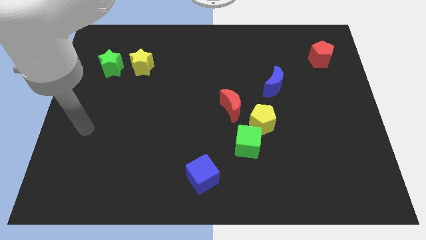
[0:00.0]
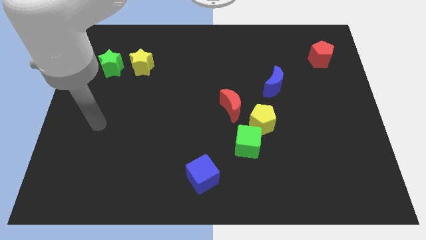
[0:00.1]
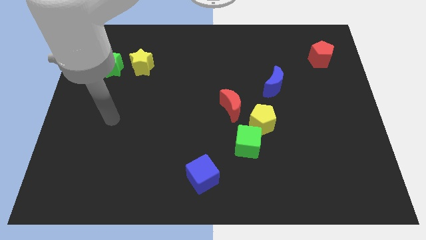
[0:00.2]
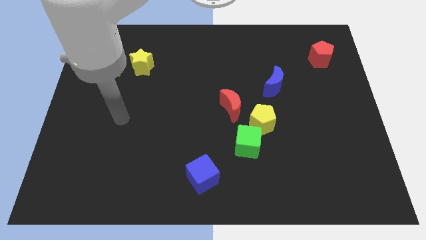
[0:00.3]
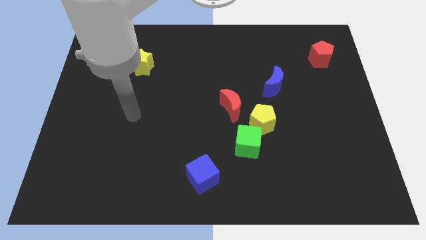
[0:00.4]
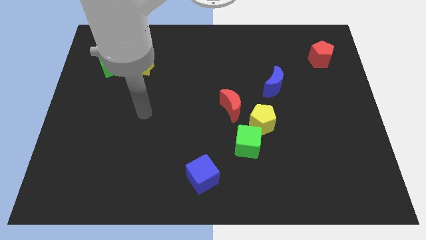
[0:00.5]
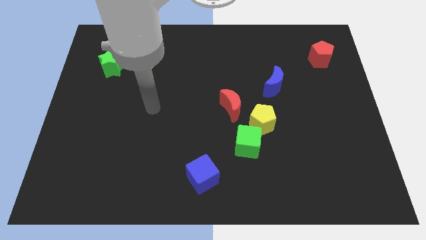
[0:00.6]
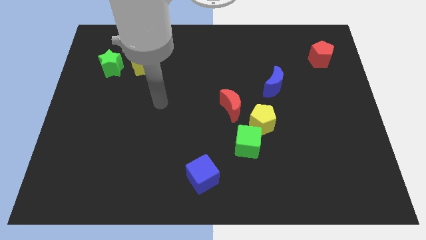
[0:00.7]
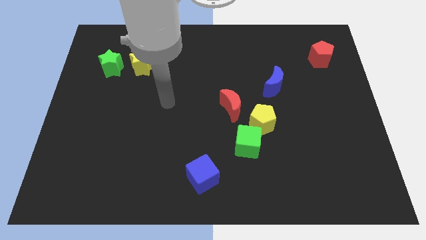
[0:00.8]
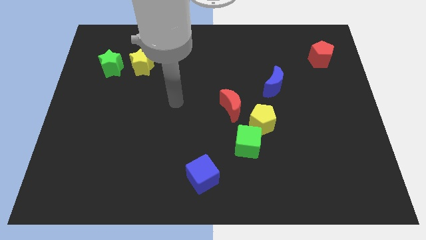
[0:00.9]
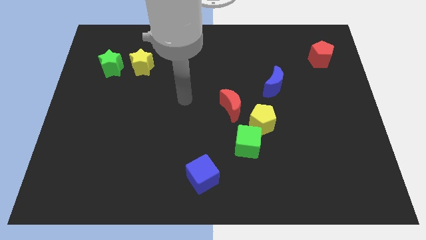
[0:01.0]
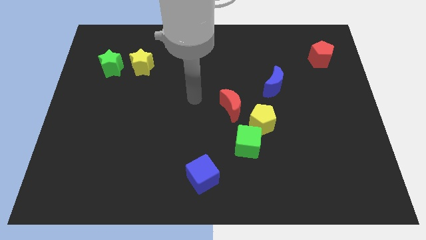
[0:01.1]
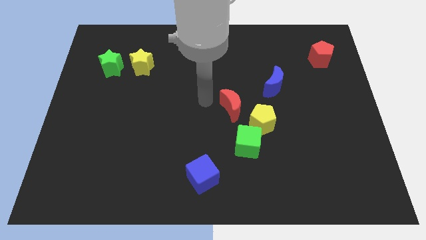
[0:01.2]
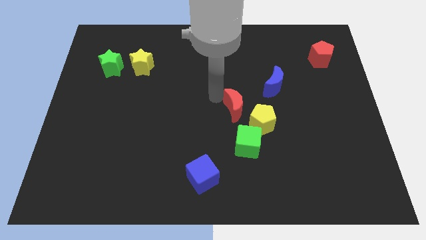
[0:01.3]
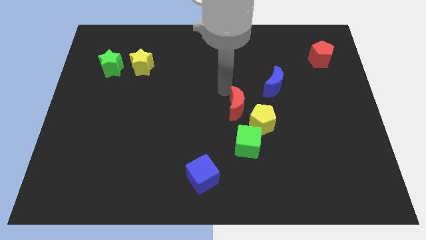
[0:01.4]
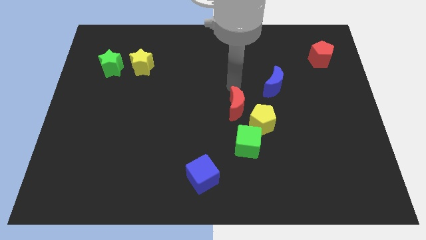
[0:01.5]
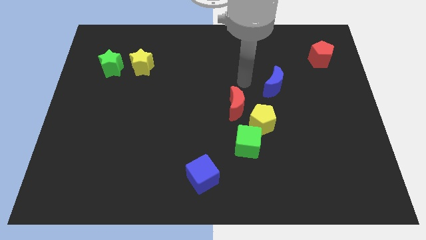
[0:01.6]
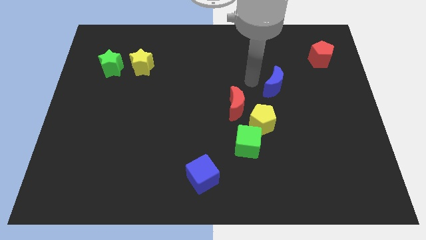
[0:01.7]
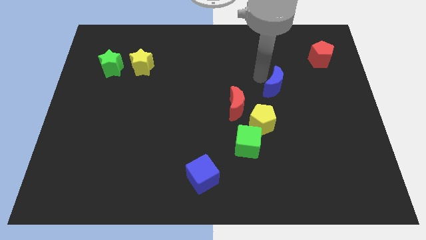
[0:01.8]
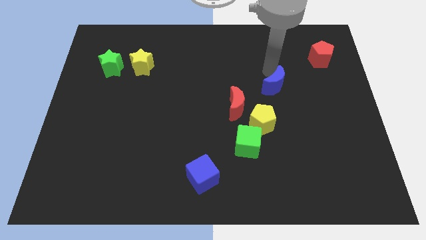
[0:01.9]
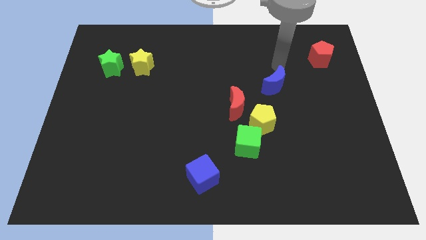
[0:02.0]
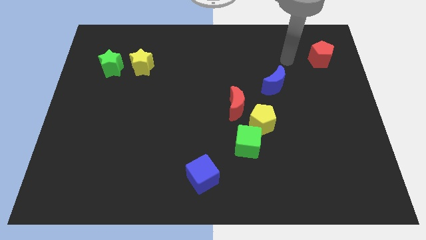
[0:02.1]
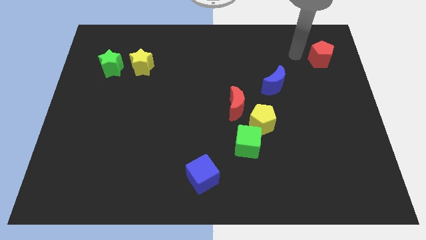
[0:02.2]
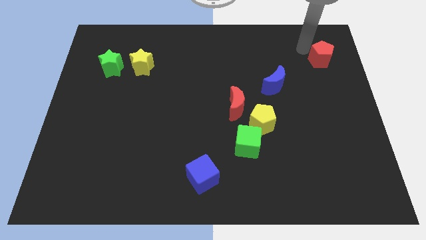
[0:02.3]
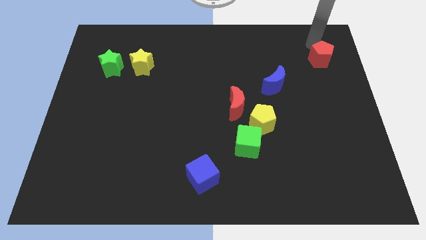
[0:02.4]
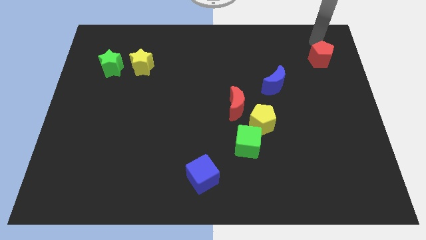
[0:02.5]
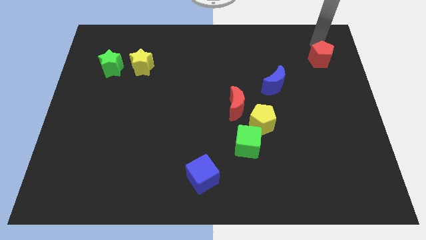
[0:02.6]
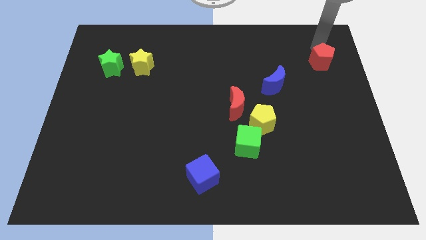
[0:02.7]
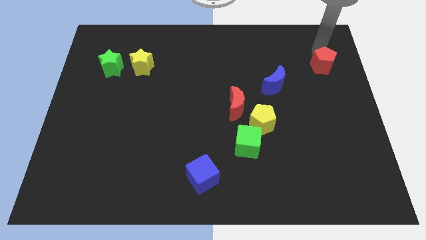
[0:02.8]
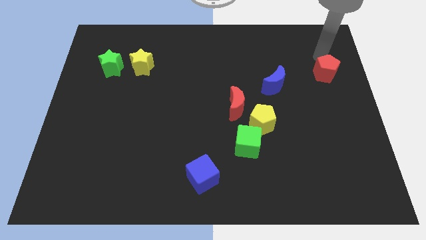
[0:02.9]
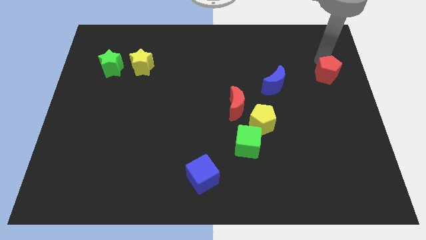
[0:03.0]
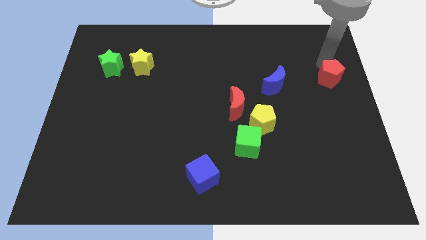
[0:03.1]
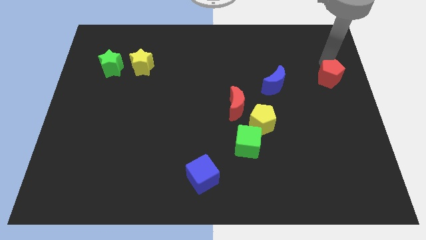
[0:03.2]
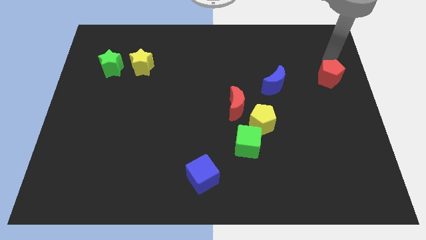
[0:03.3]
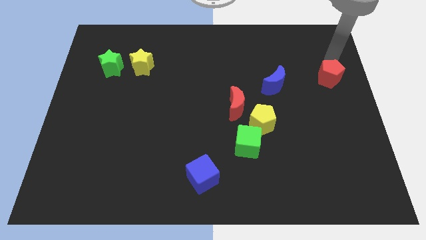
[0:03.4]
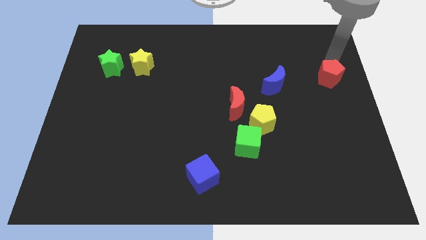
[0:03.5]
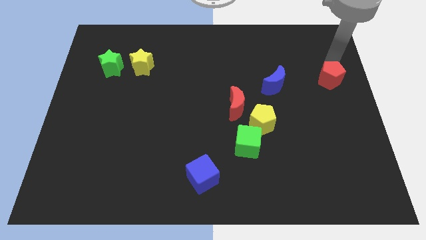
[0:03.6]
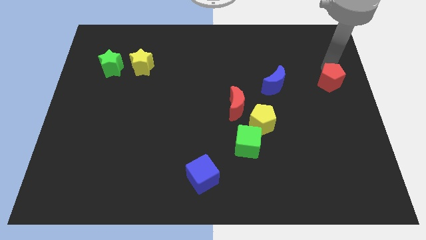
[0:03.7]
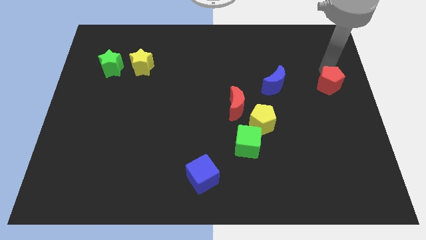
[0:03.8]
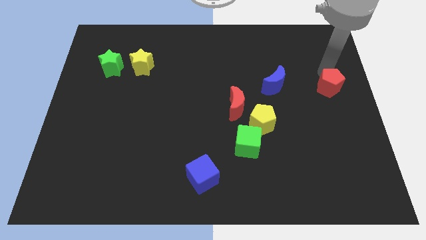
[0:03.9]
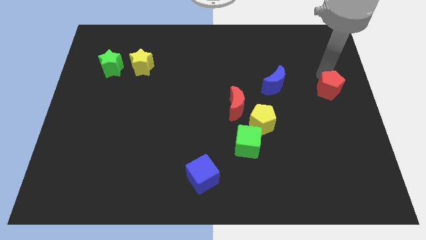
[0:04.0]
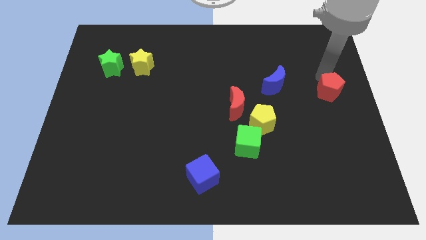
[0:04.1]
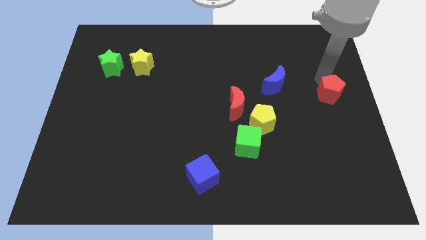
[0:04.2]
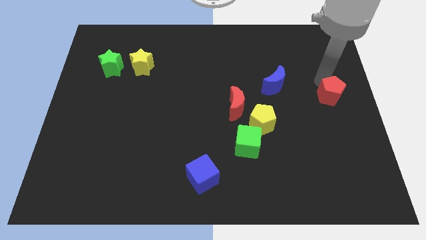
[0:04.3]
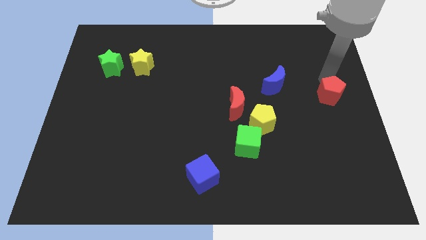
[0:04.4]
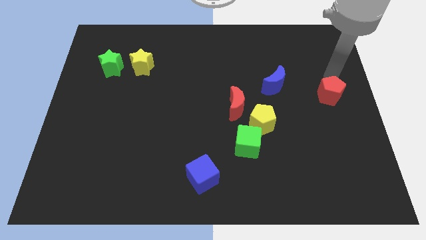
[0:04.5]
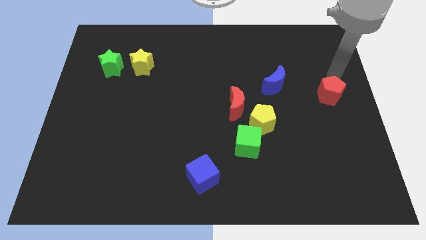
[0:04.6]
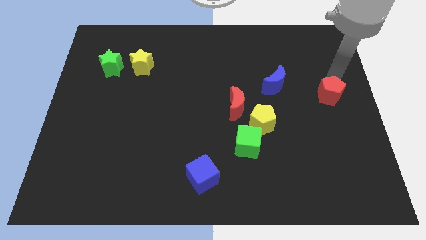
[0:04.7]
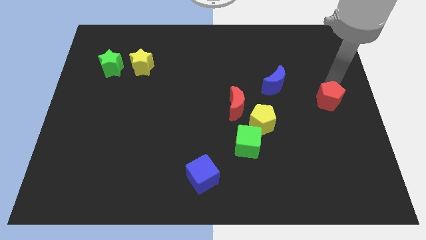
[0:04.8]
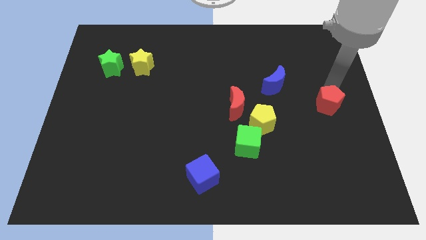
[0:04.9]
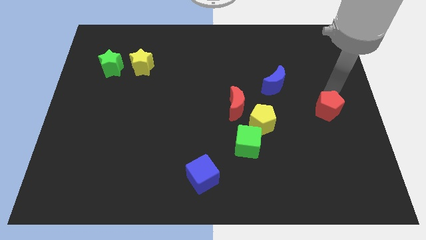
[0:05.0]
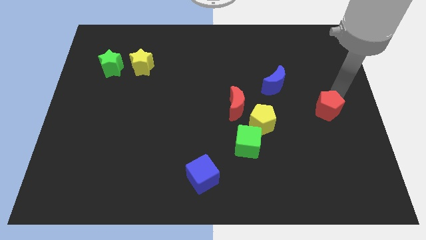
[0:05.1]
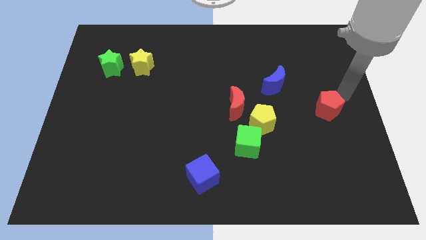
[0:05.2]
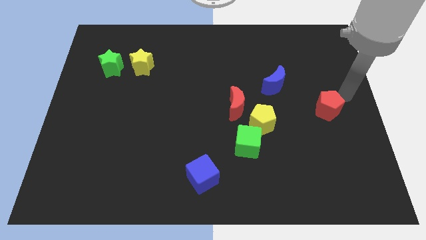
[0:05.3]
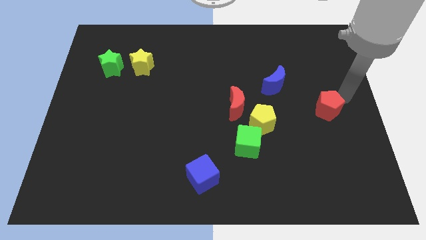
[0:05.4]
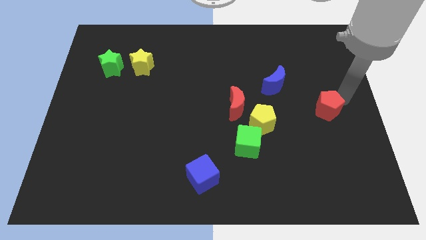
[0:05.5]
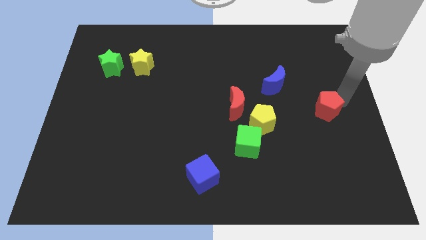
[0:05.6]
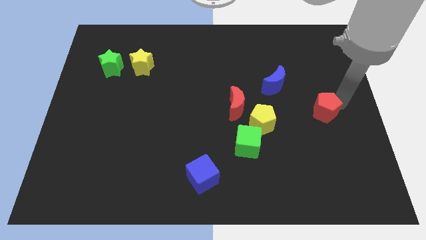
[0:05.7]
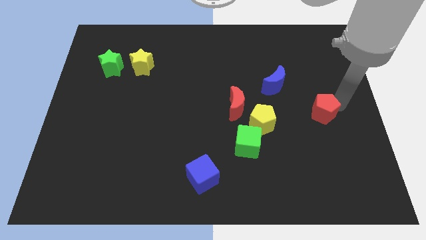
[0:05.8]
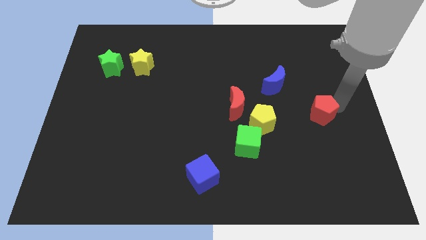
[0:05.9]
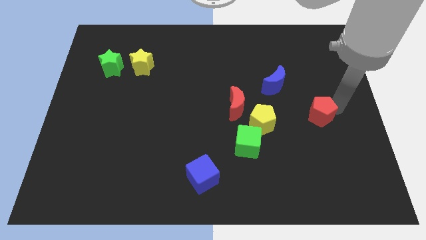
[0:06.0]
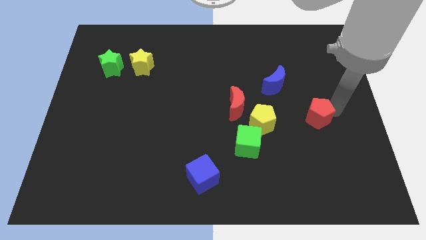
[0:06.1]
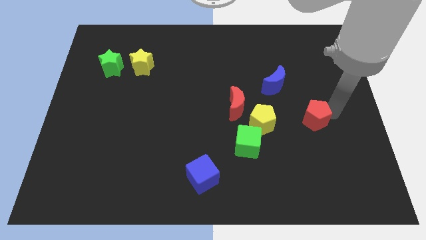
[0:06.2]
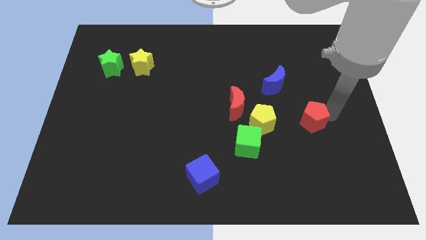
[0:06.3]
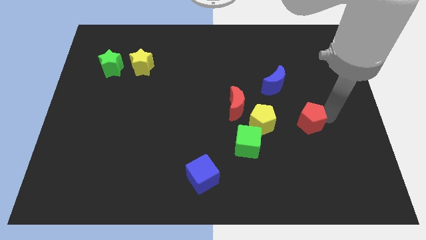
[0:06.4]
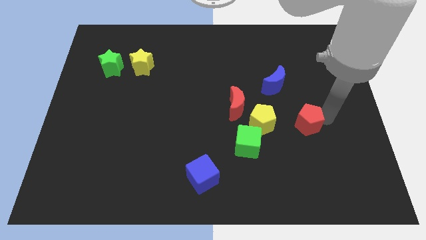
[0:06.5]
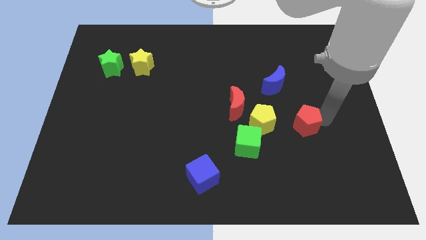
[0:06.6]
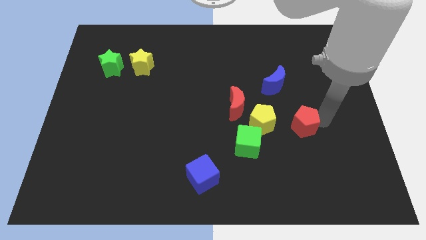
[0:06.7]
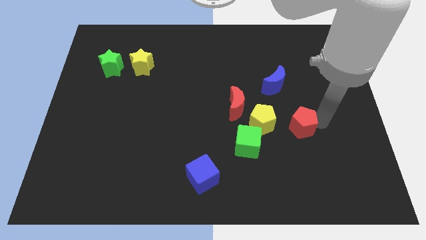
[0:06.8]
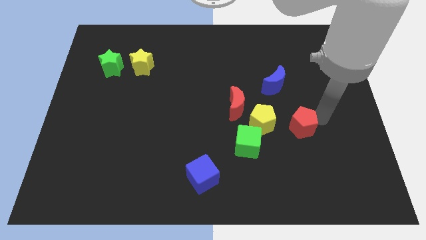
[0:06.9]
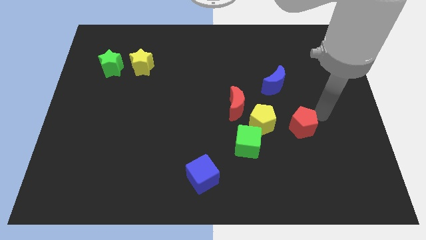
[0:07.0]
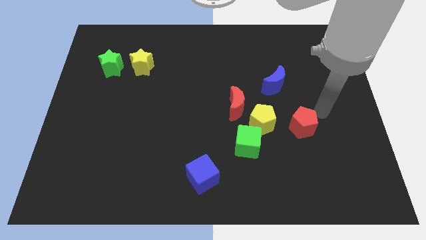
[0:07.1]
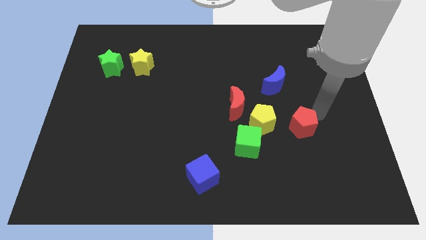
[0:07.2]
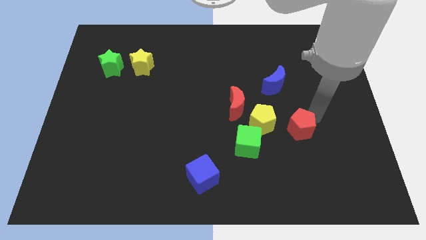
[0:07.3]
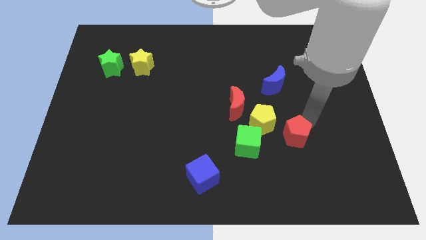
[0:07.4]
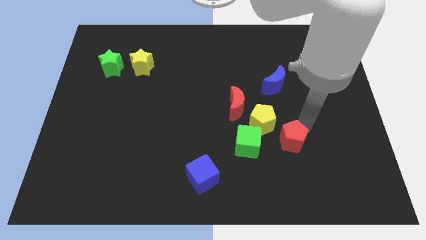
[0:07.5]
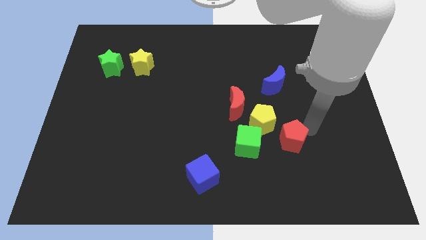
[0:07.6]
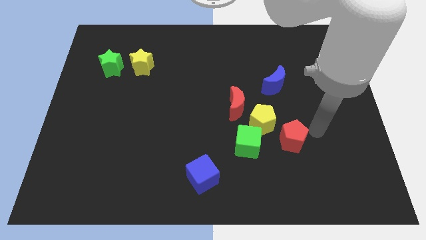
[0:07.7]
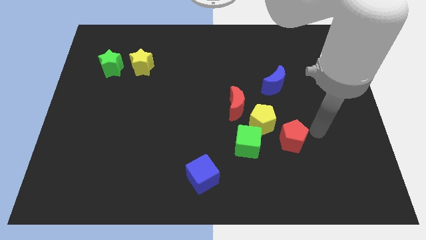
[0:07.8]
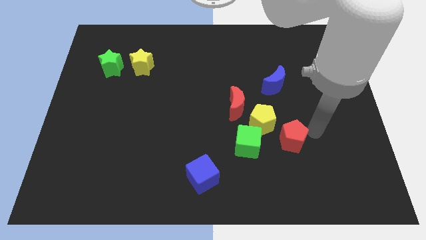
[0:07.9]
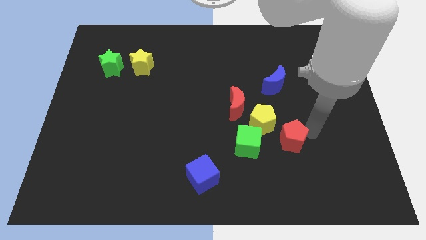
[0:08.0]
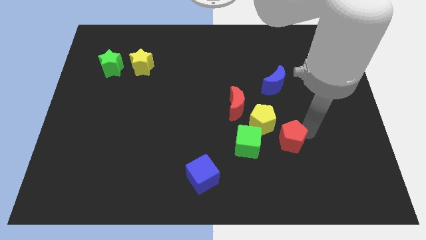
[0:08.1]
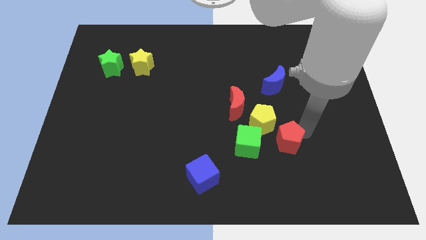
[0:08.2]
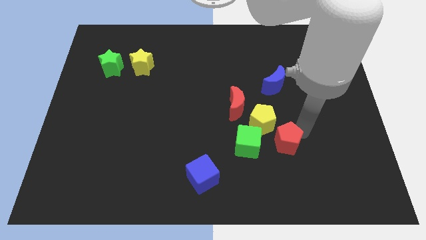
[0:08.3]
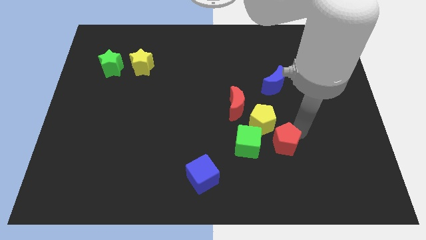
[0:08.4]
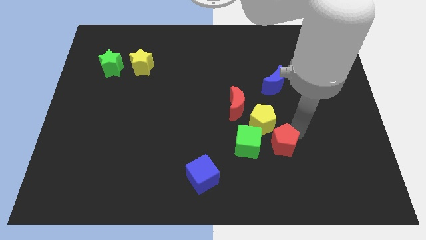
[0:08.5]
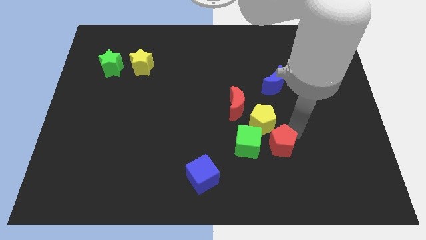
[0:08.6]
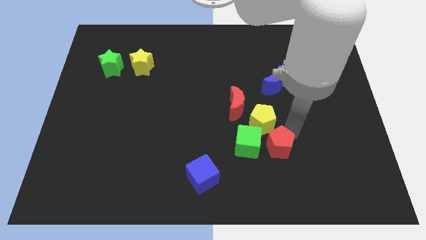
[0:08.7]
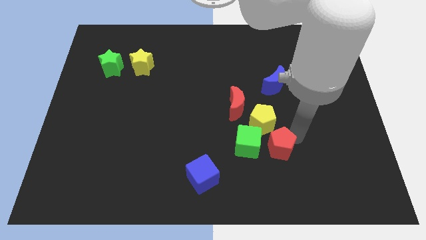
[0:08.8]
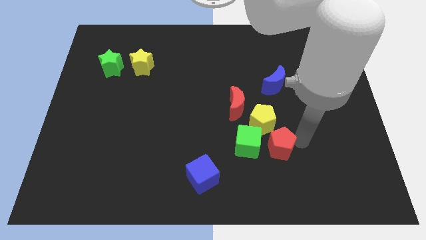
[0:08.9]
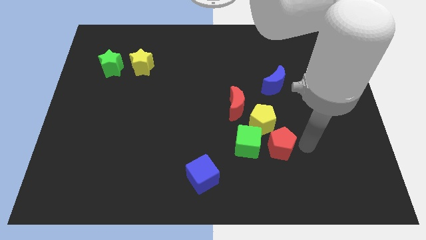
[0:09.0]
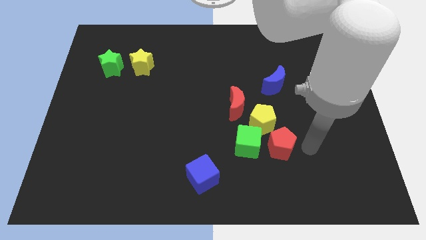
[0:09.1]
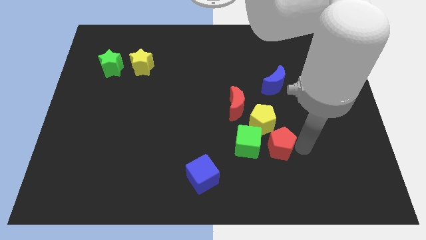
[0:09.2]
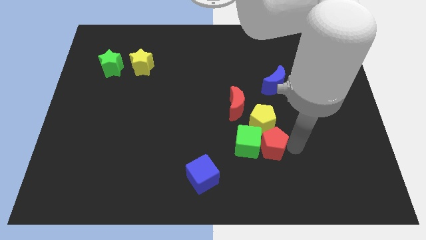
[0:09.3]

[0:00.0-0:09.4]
slide the red pentagon to the green cube
